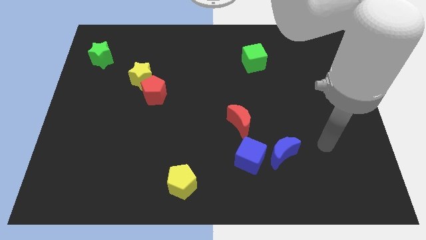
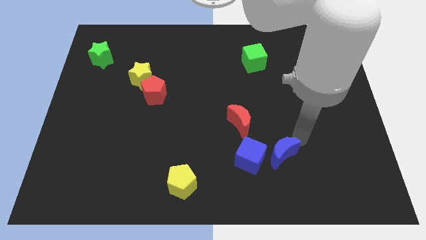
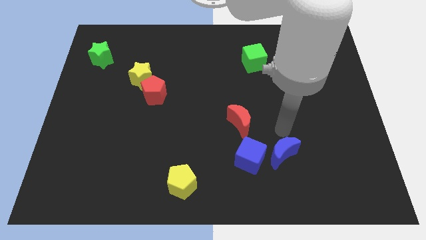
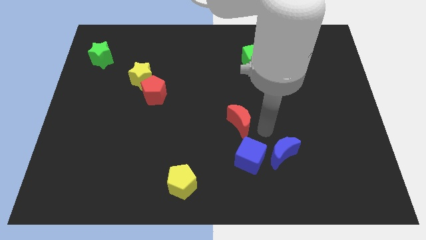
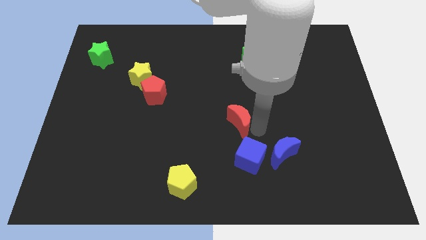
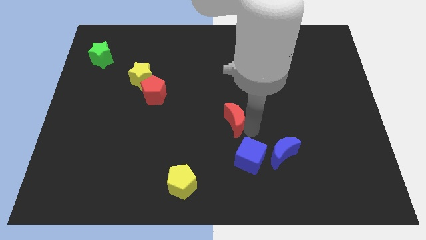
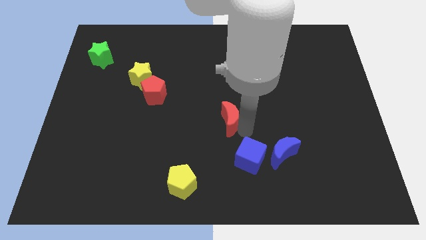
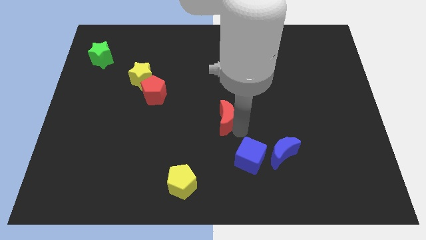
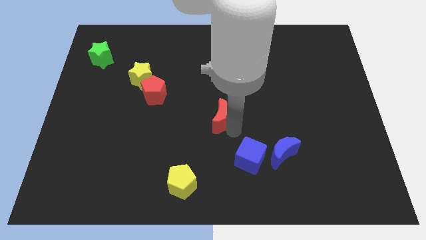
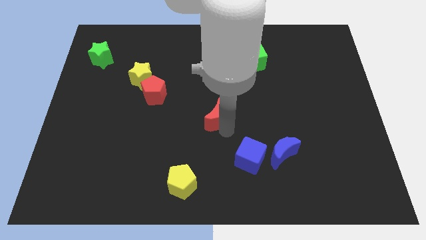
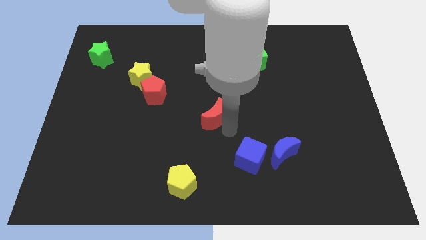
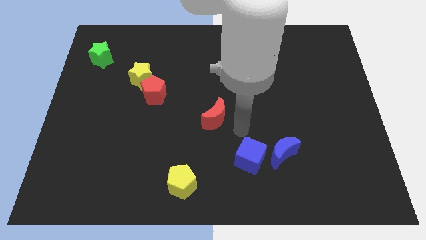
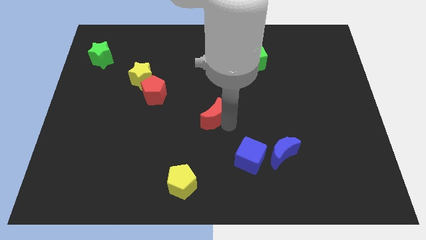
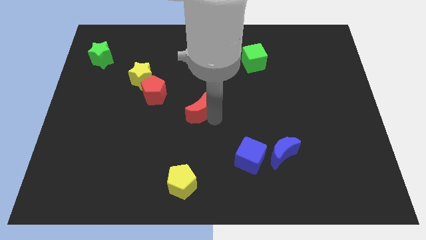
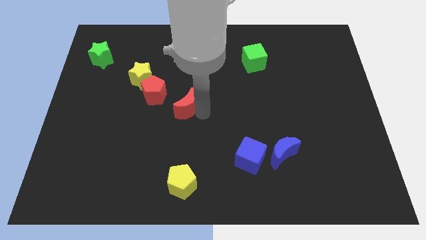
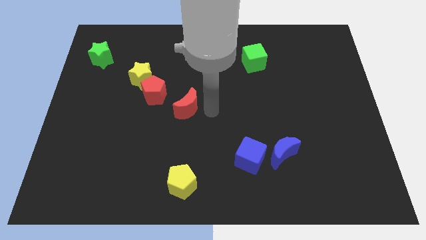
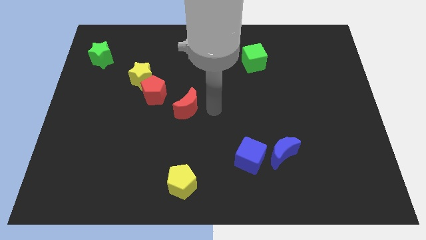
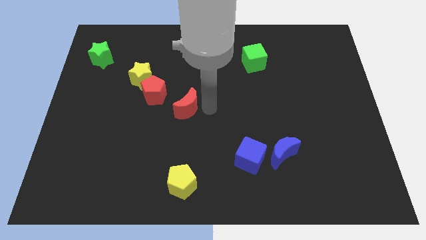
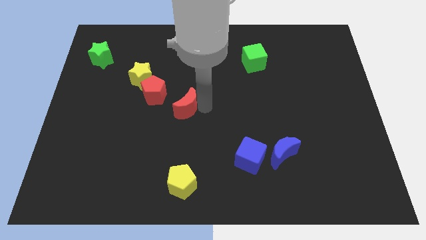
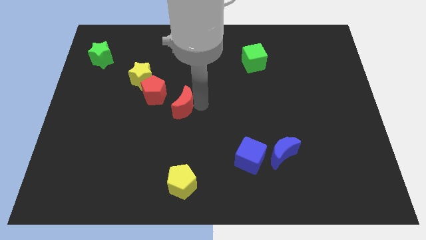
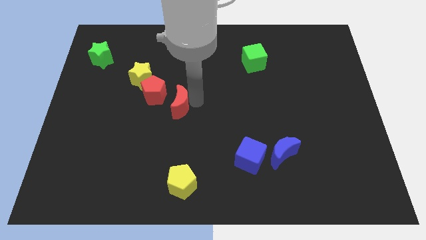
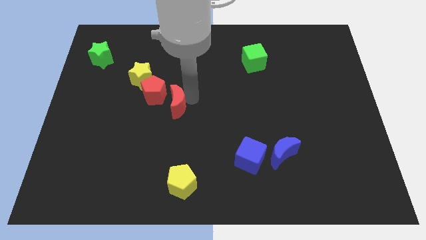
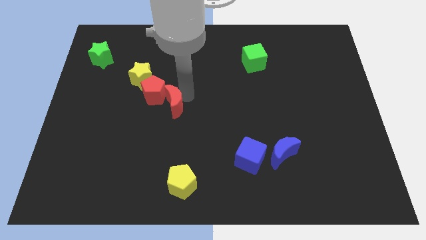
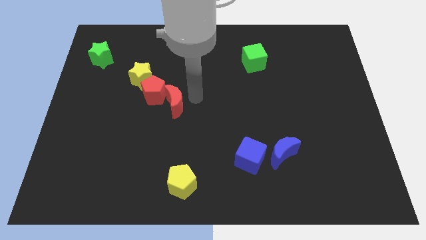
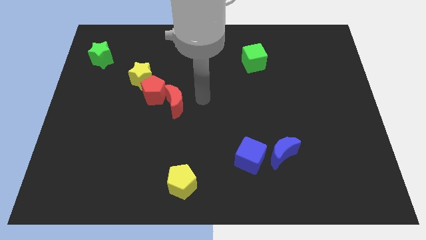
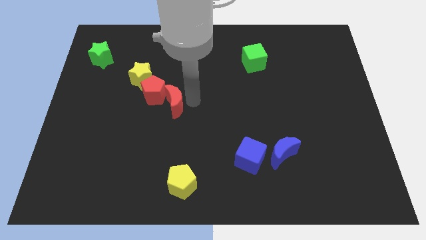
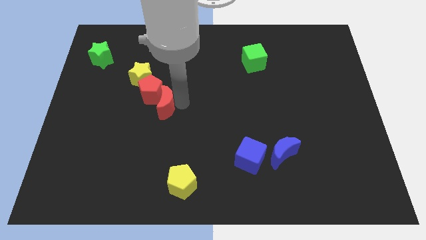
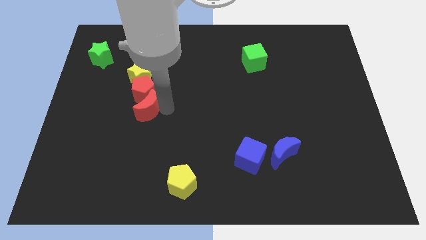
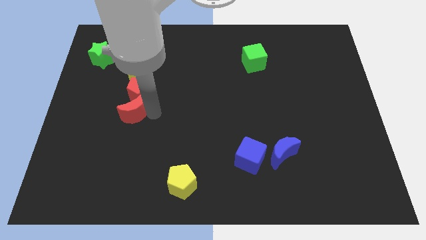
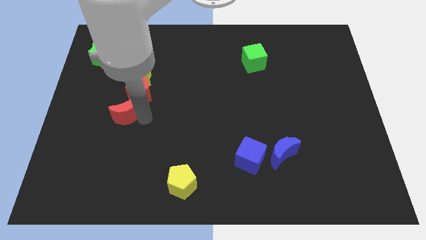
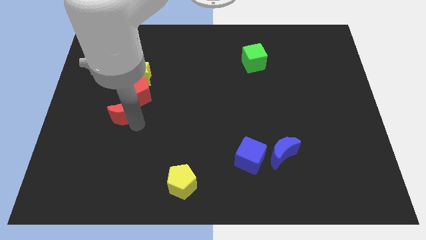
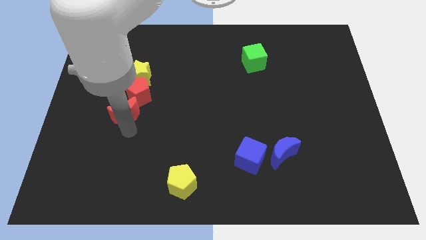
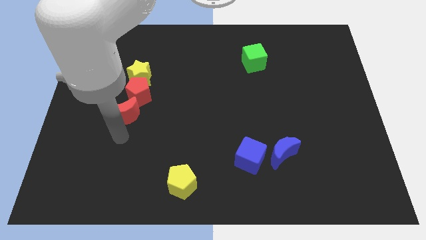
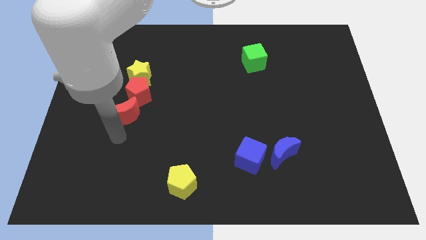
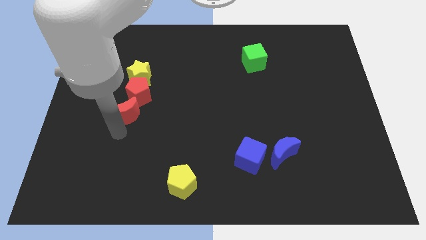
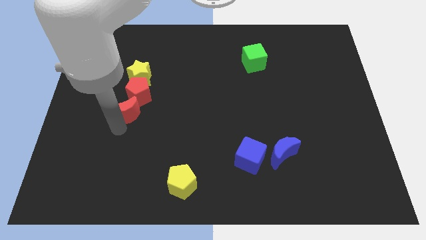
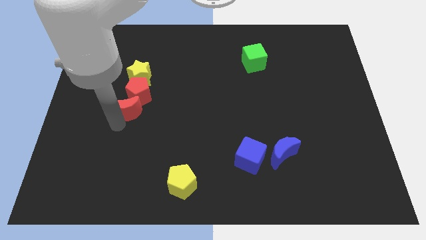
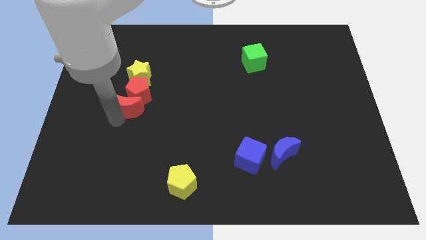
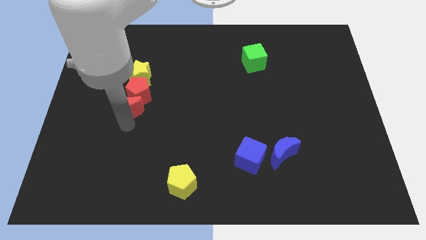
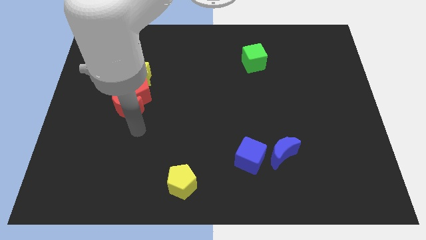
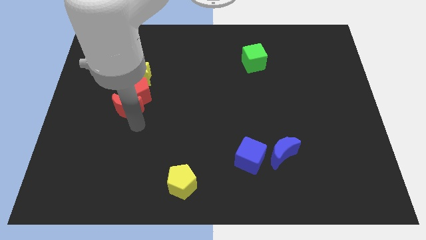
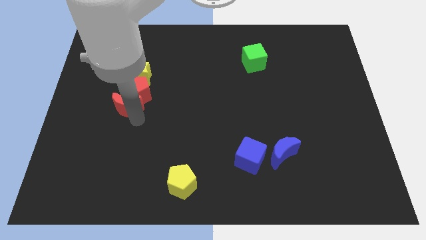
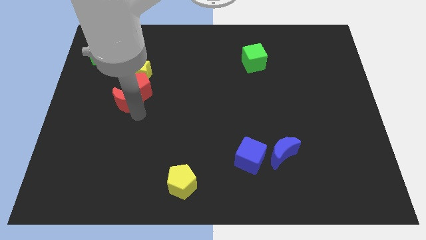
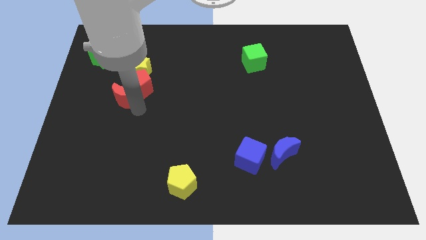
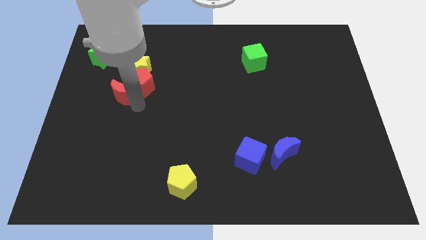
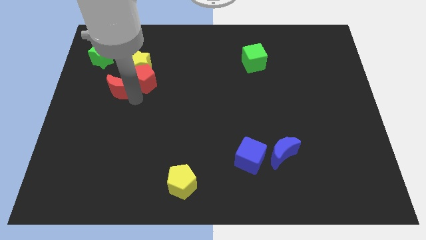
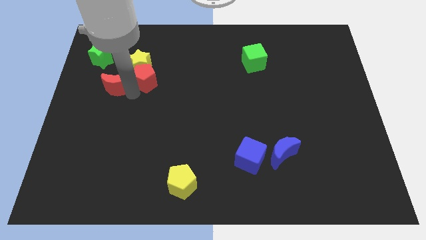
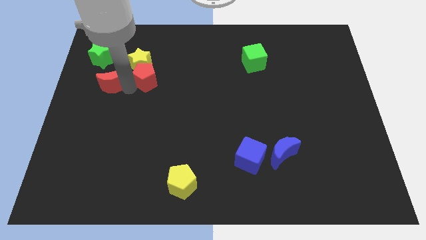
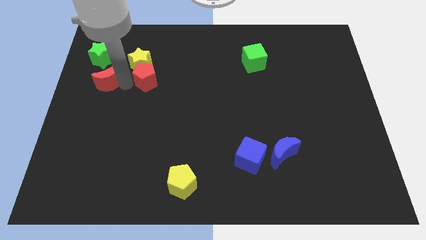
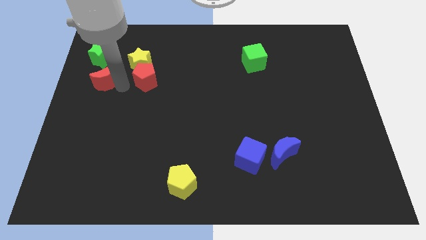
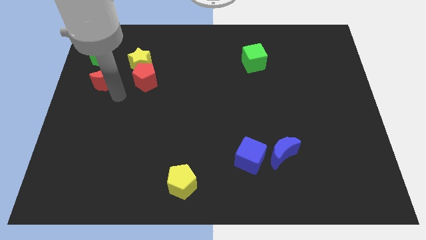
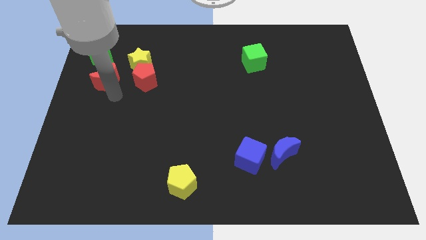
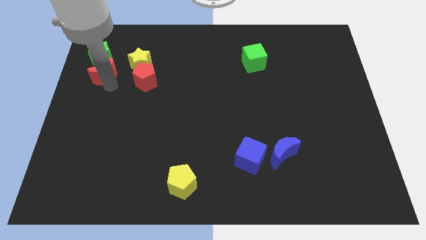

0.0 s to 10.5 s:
put the red moon to the left side of the yellow star

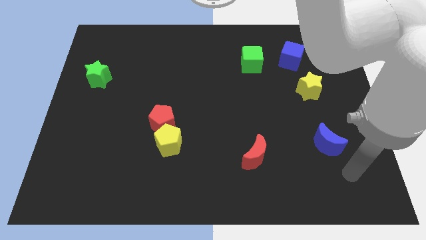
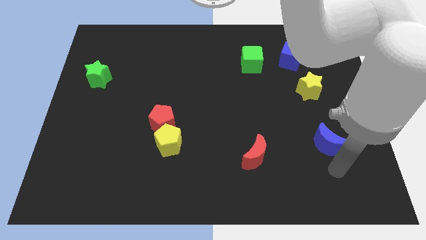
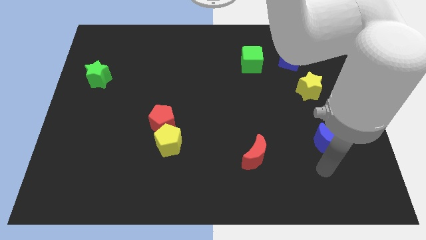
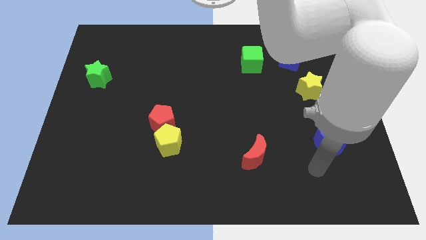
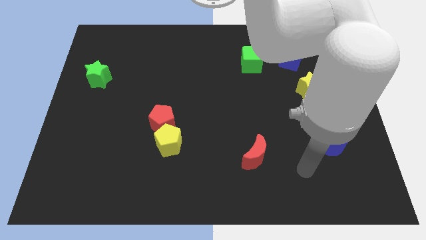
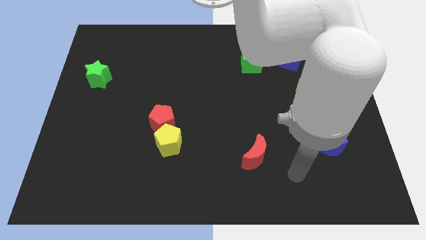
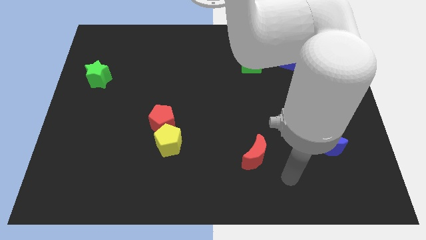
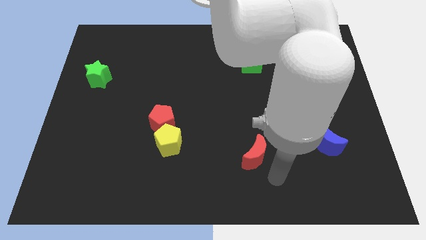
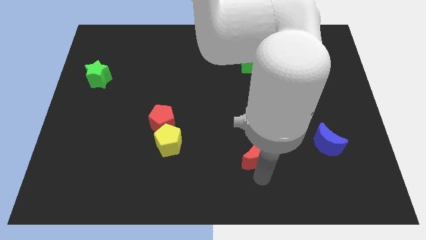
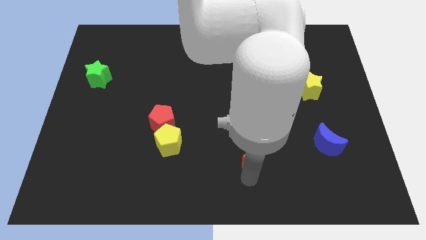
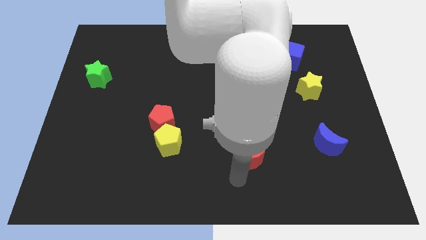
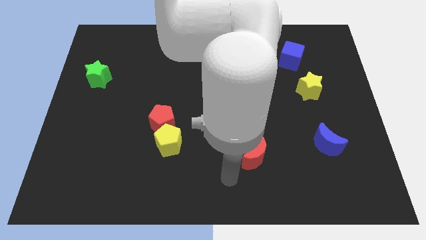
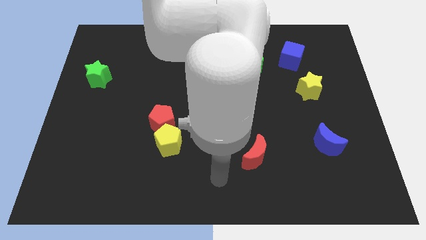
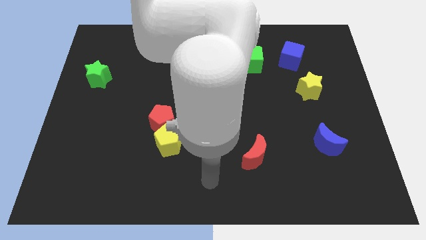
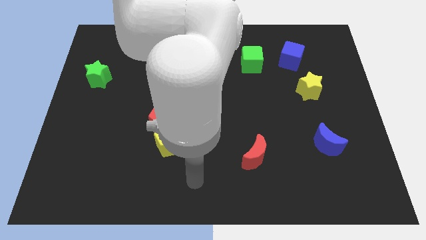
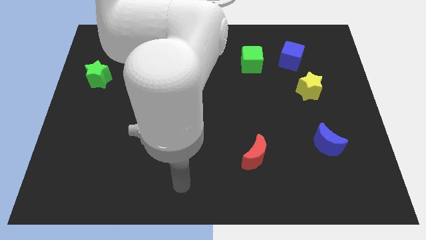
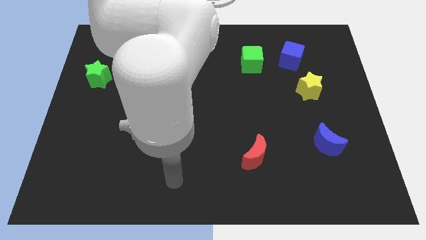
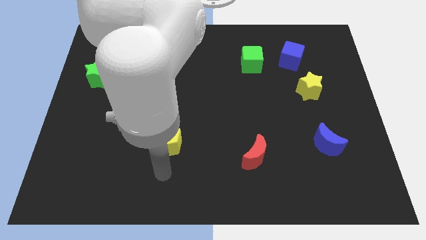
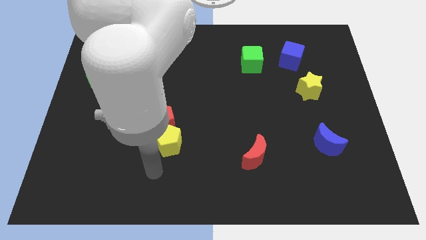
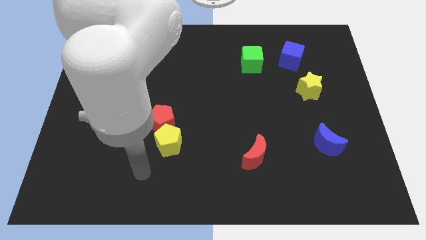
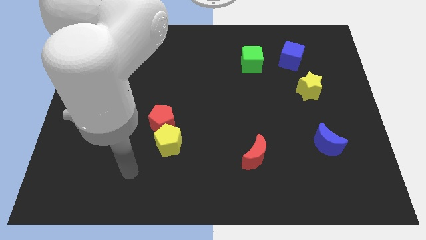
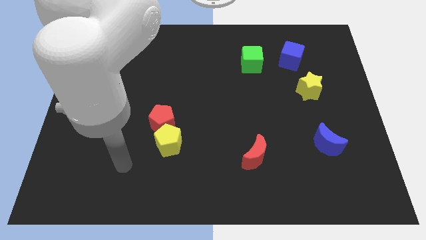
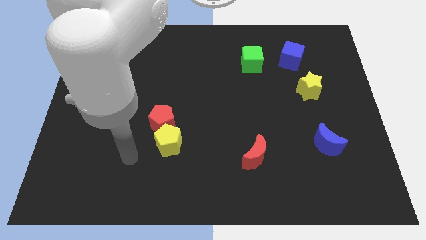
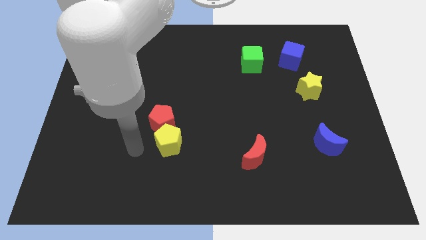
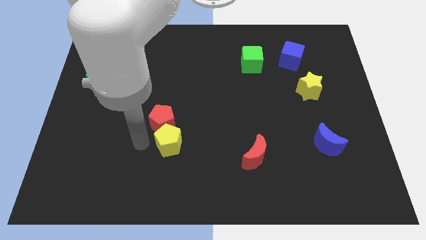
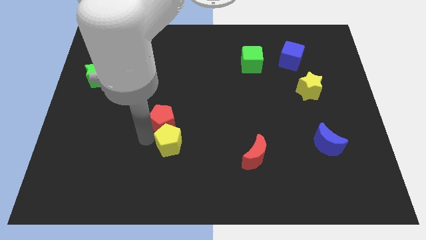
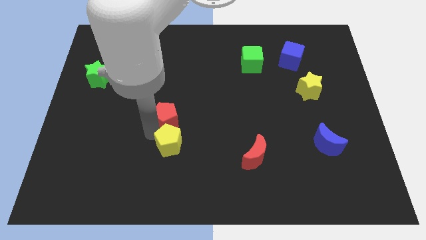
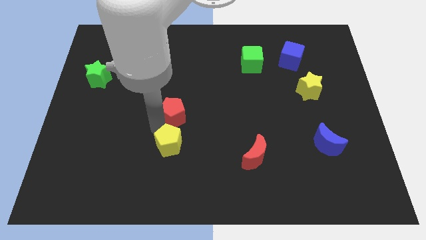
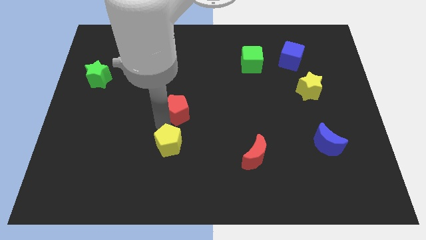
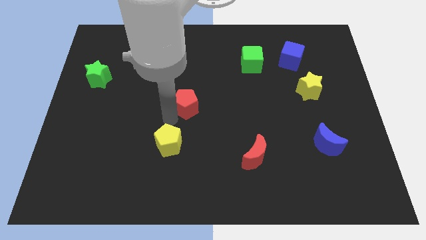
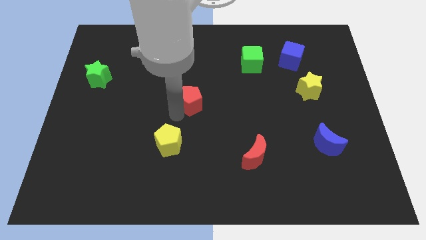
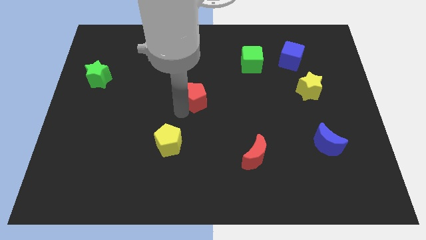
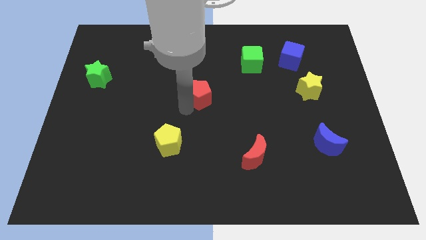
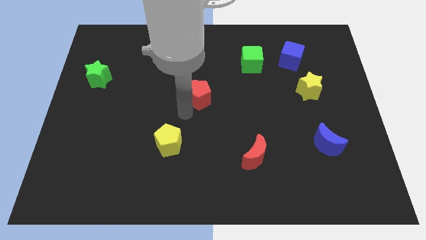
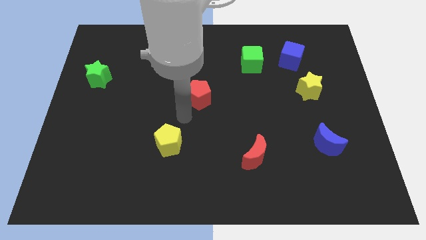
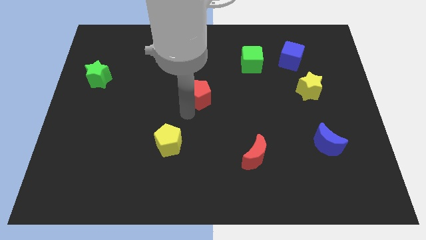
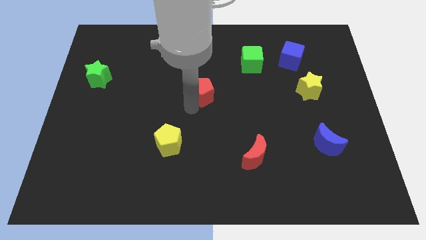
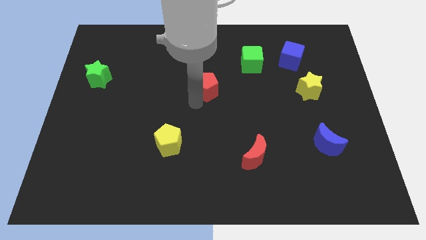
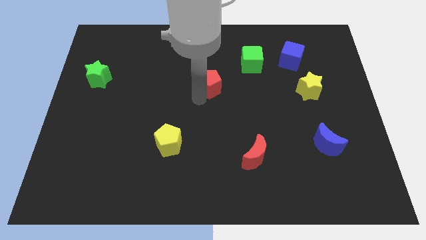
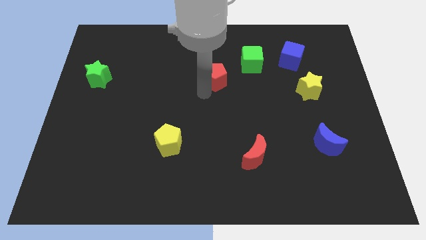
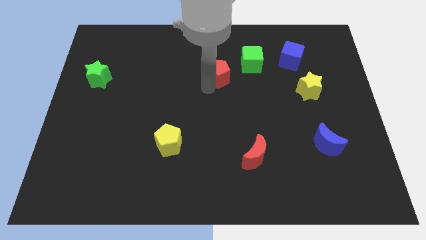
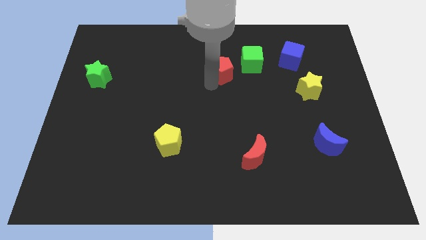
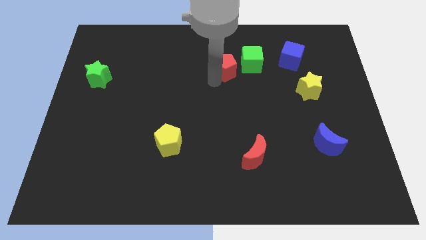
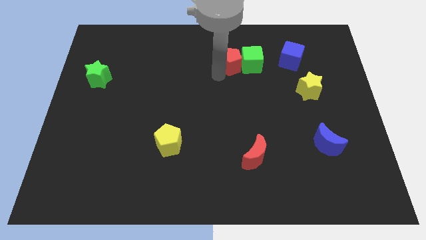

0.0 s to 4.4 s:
slide the red pentagon just left of the blue cube
